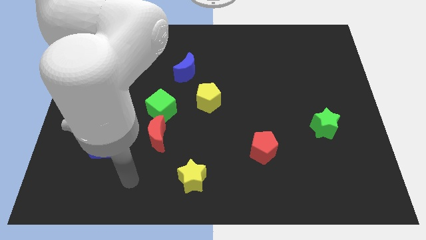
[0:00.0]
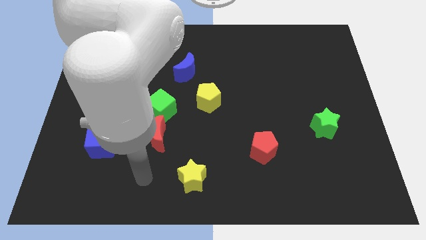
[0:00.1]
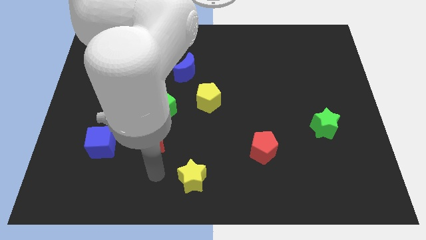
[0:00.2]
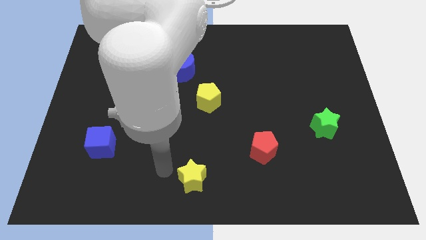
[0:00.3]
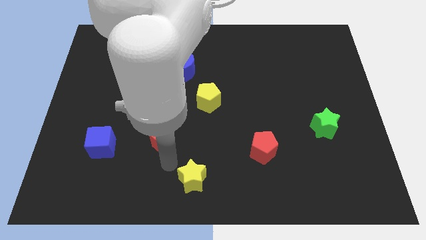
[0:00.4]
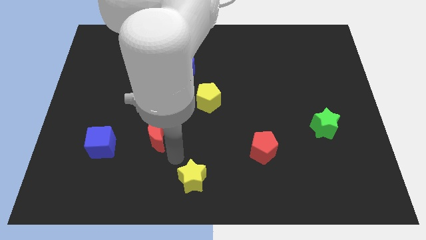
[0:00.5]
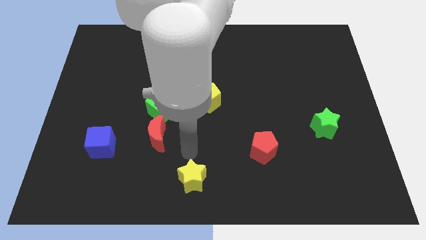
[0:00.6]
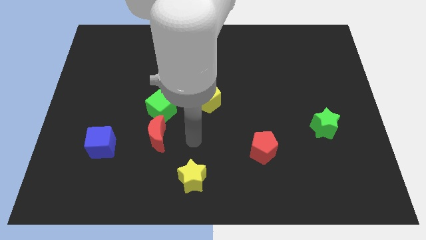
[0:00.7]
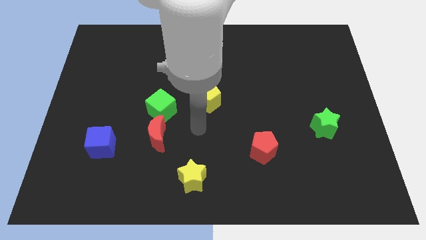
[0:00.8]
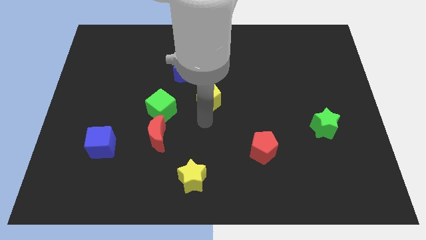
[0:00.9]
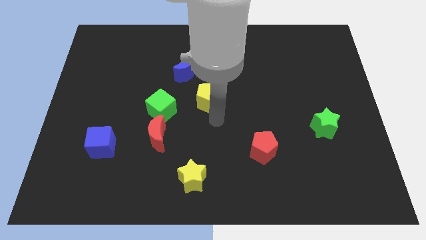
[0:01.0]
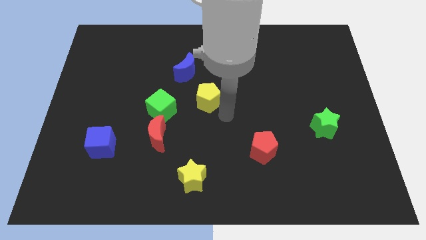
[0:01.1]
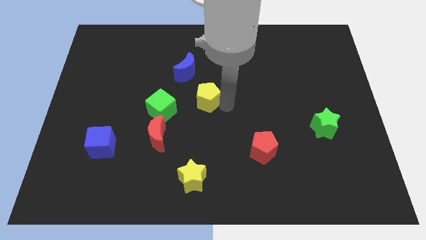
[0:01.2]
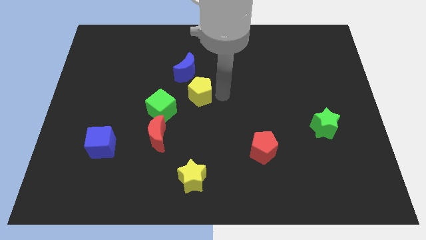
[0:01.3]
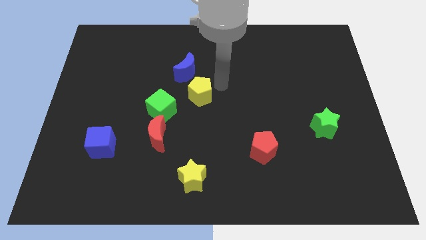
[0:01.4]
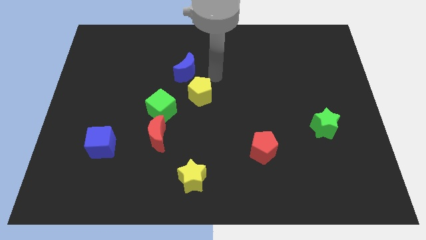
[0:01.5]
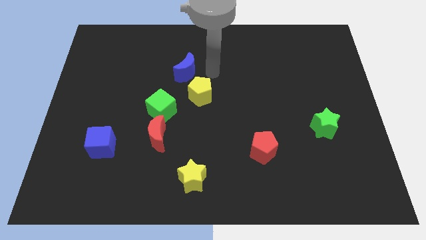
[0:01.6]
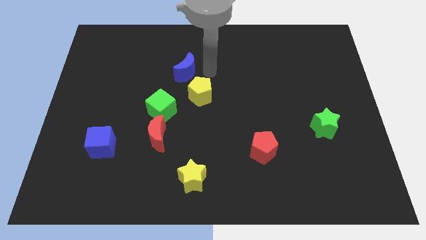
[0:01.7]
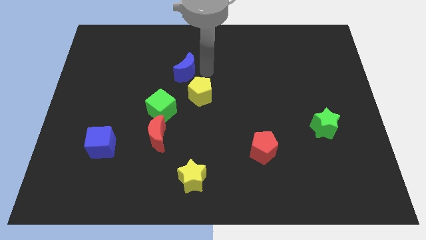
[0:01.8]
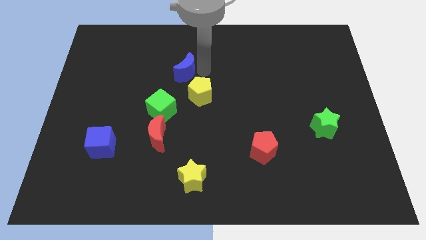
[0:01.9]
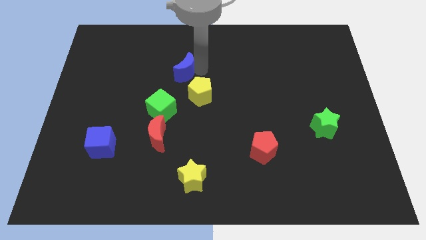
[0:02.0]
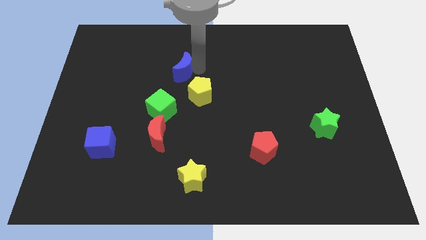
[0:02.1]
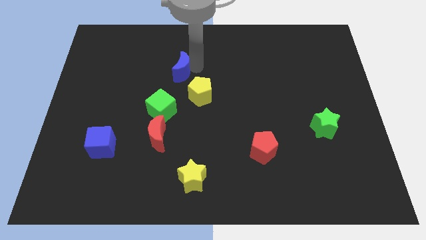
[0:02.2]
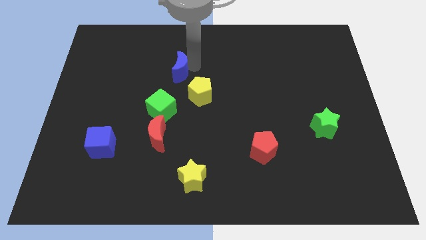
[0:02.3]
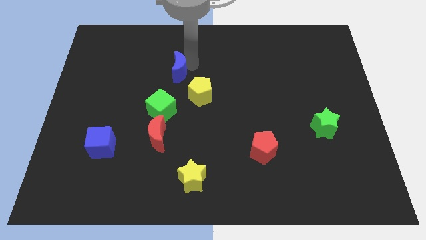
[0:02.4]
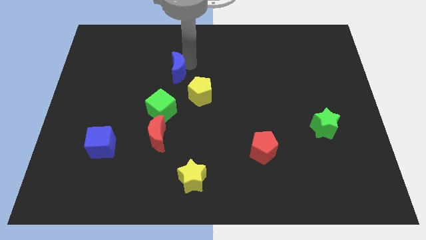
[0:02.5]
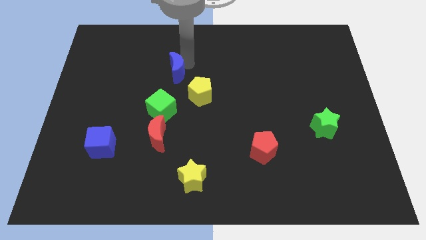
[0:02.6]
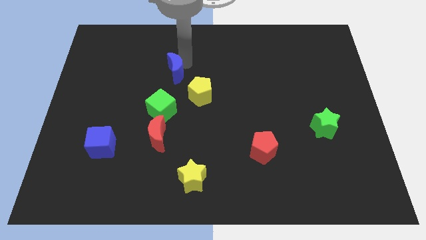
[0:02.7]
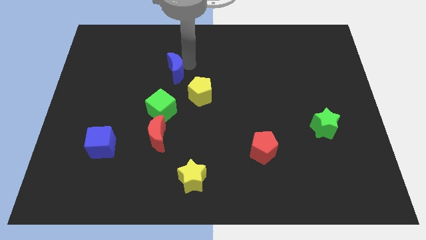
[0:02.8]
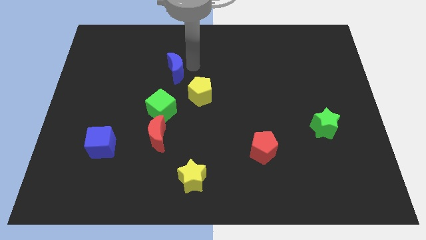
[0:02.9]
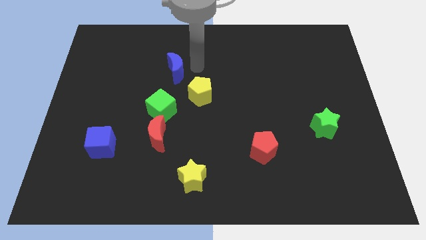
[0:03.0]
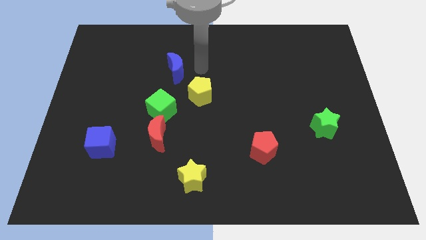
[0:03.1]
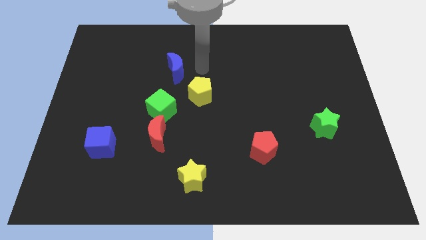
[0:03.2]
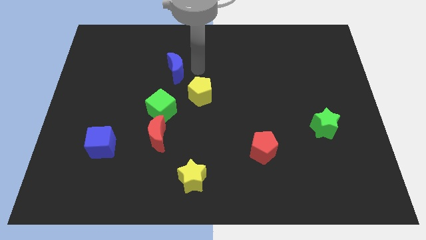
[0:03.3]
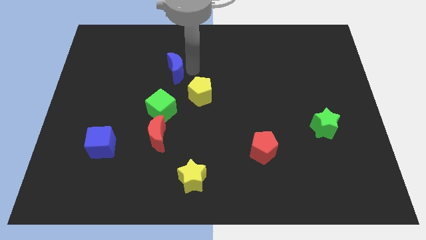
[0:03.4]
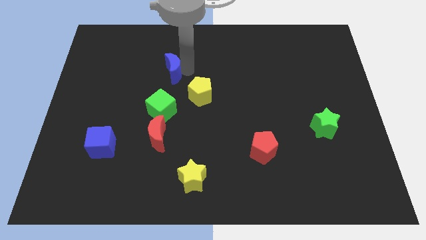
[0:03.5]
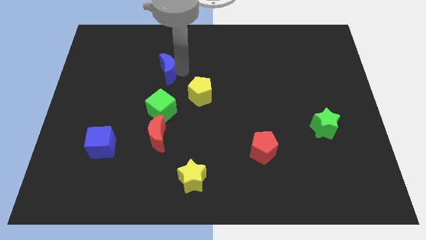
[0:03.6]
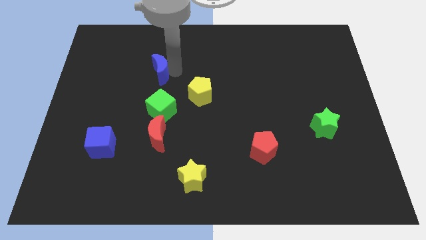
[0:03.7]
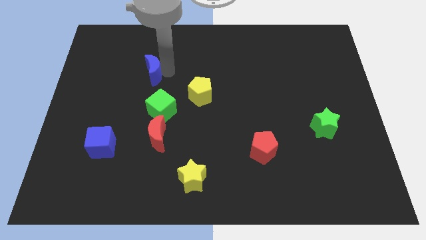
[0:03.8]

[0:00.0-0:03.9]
move the blue moon left a little bit

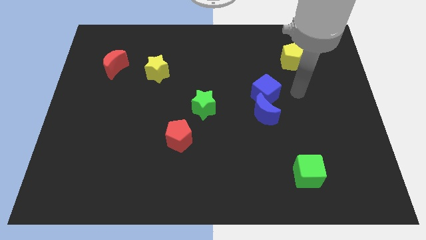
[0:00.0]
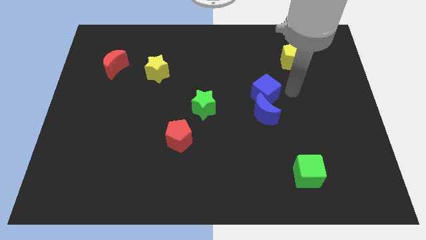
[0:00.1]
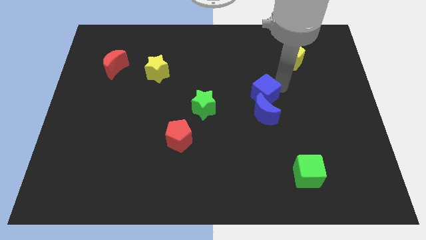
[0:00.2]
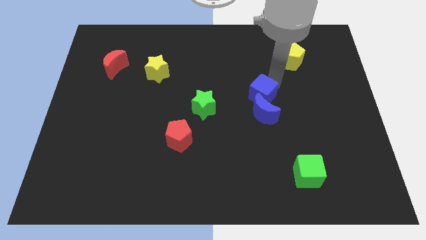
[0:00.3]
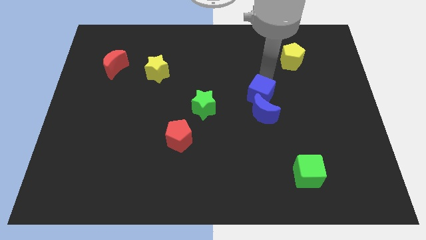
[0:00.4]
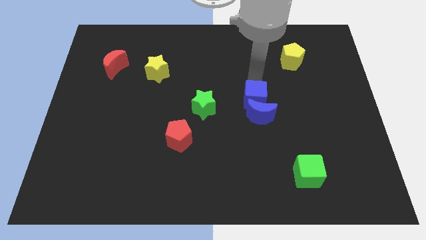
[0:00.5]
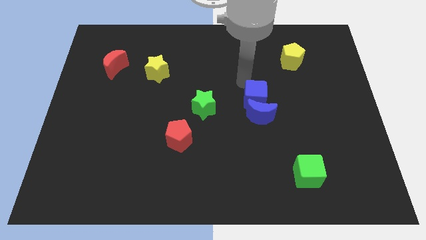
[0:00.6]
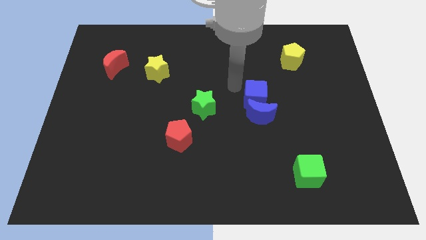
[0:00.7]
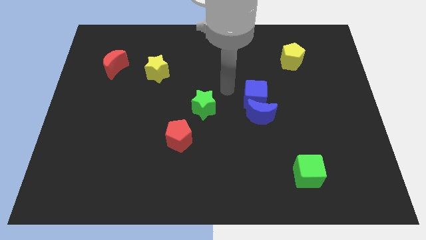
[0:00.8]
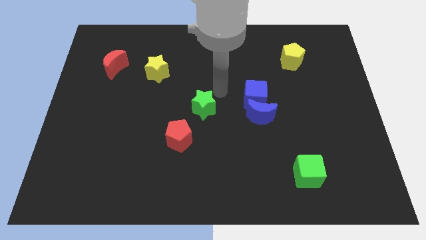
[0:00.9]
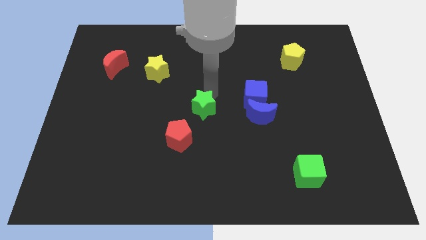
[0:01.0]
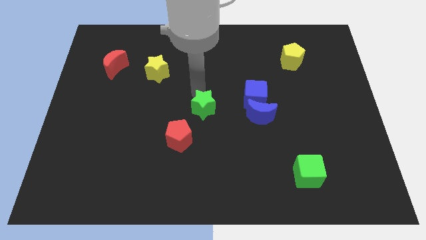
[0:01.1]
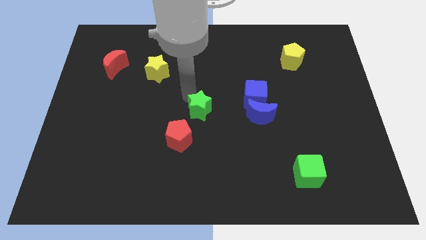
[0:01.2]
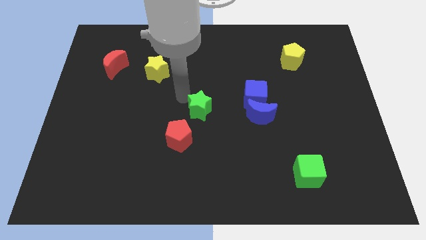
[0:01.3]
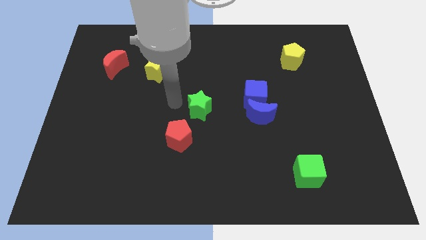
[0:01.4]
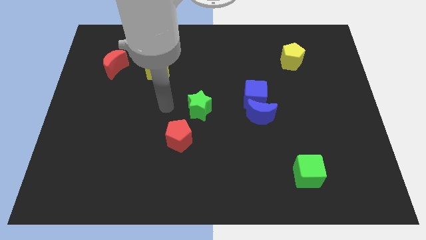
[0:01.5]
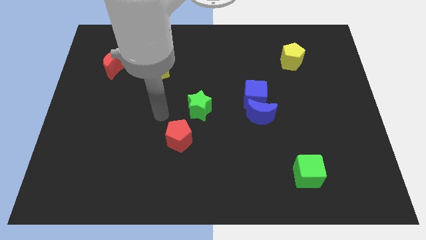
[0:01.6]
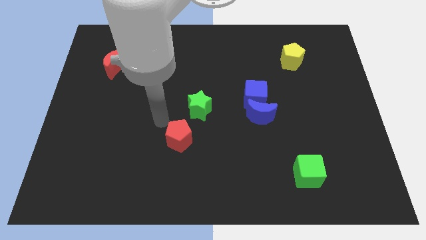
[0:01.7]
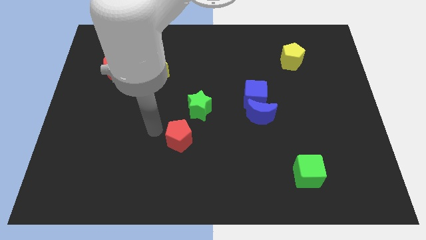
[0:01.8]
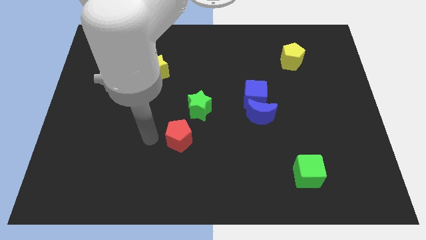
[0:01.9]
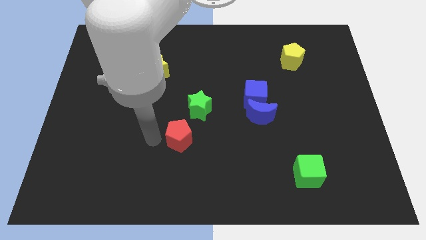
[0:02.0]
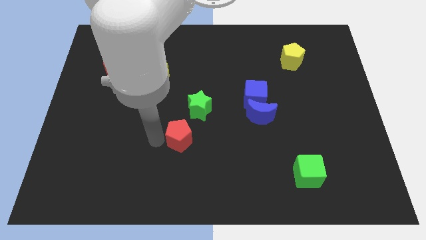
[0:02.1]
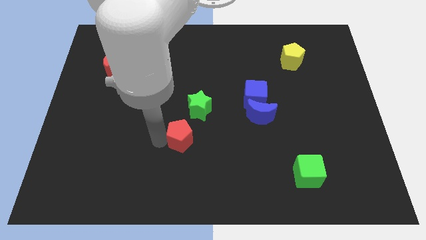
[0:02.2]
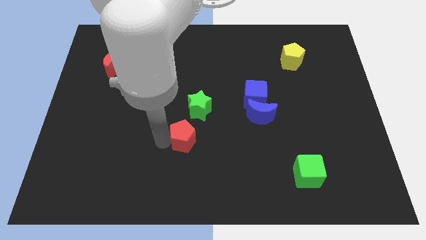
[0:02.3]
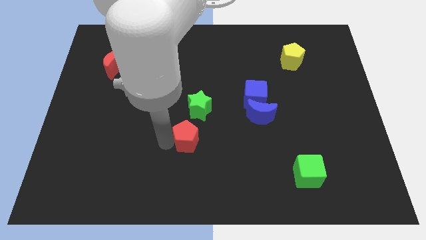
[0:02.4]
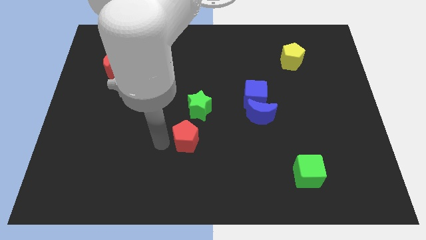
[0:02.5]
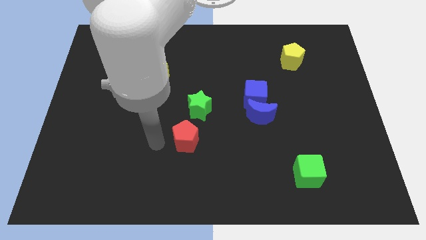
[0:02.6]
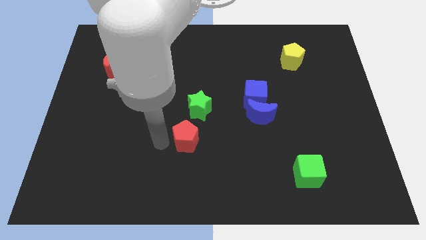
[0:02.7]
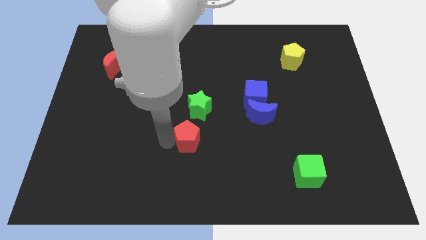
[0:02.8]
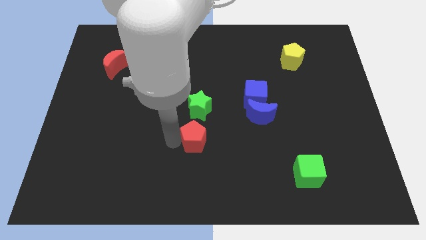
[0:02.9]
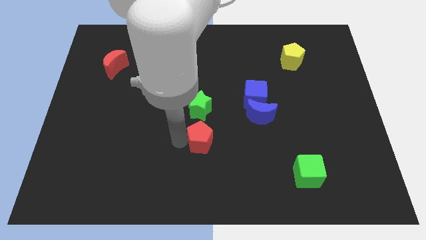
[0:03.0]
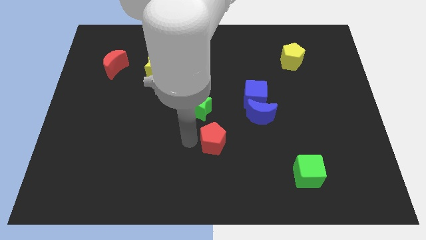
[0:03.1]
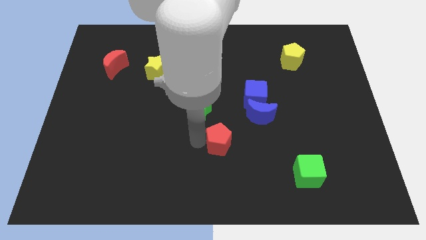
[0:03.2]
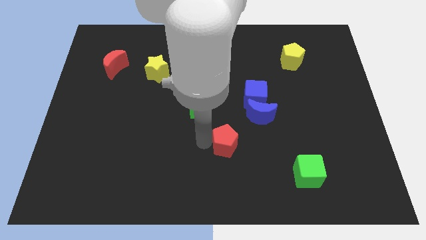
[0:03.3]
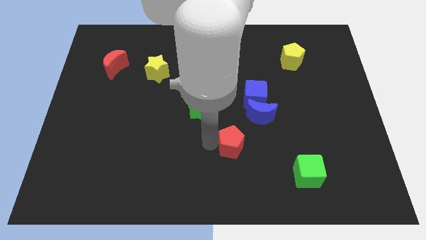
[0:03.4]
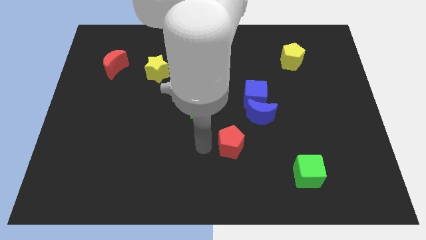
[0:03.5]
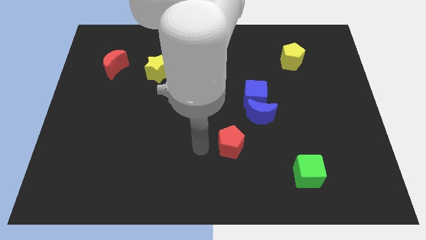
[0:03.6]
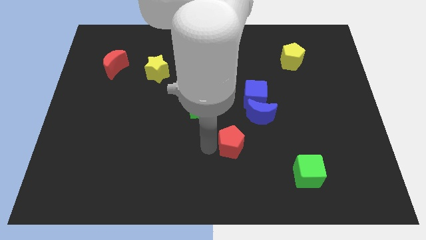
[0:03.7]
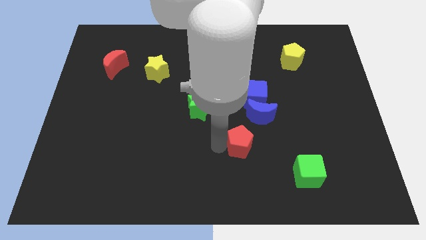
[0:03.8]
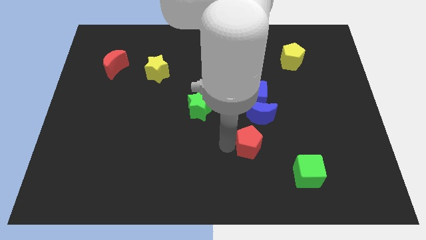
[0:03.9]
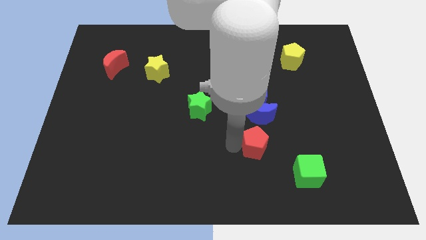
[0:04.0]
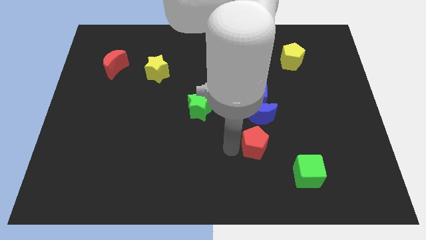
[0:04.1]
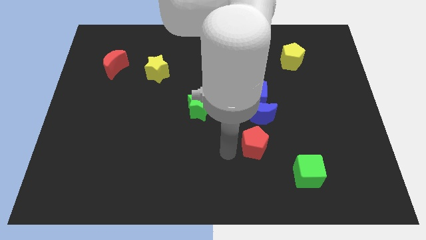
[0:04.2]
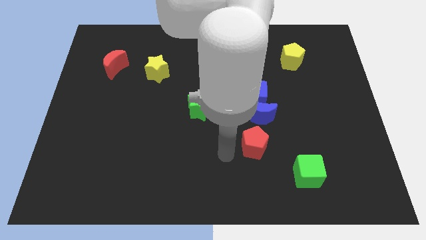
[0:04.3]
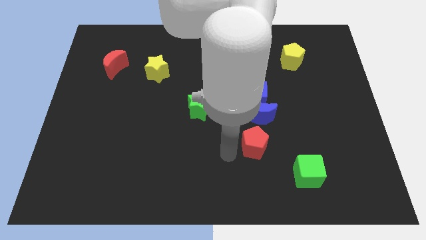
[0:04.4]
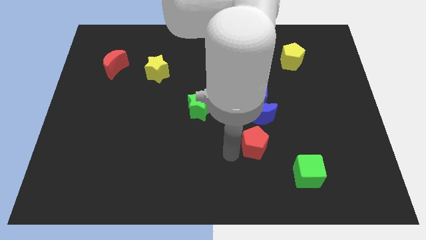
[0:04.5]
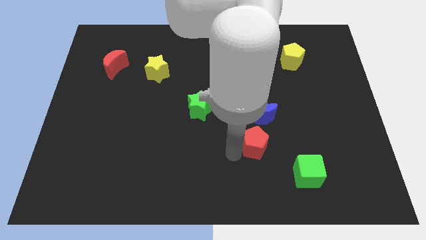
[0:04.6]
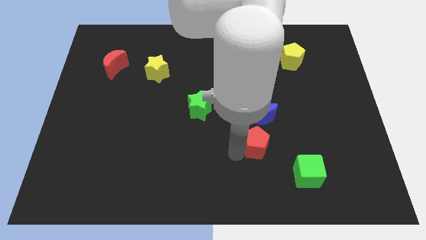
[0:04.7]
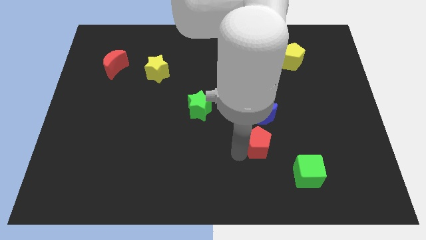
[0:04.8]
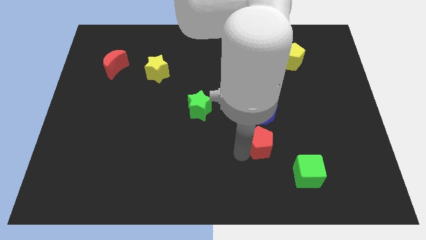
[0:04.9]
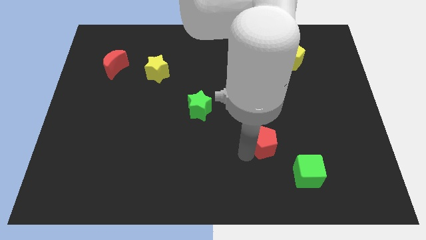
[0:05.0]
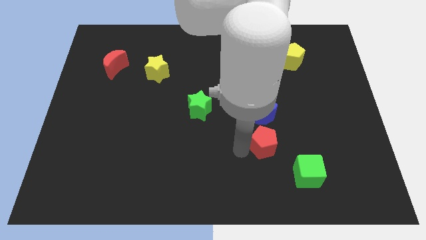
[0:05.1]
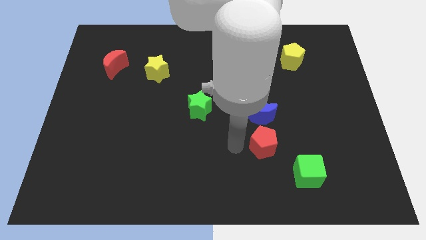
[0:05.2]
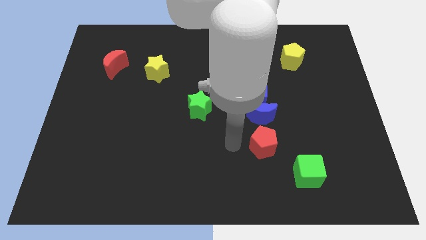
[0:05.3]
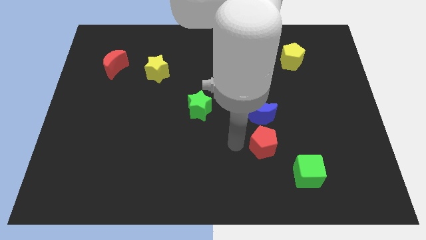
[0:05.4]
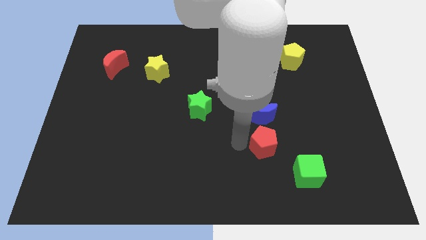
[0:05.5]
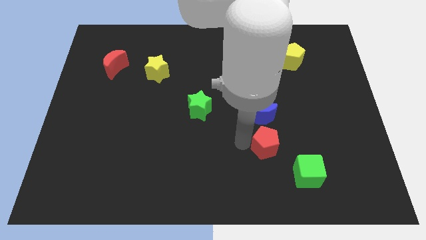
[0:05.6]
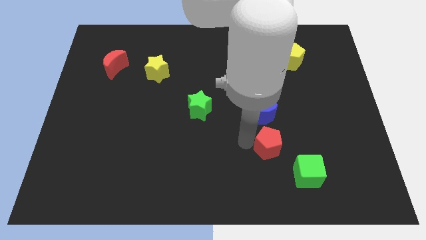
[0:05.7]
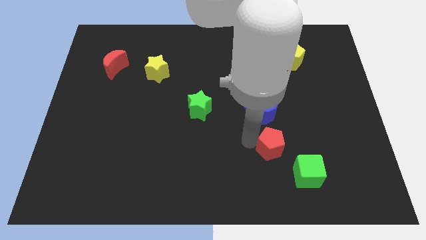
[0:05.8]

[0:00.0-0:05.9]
push the red pentagon to the right
